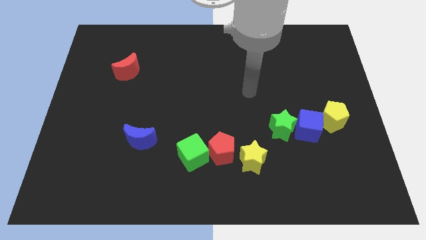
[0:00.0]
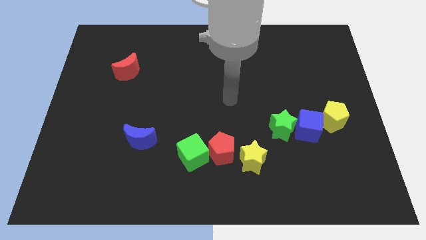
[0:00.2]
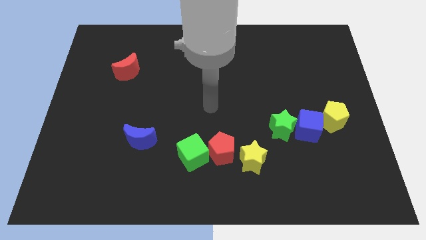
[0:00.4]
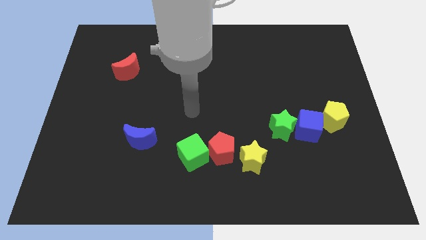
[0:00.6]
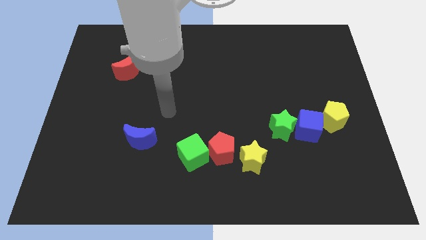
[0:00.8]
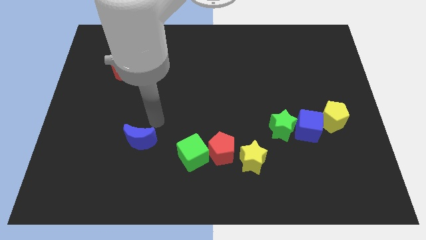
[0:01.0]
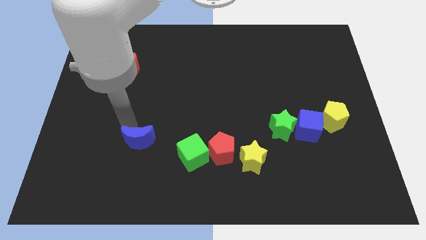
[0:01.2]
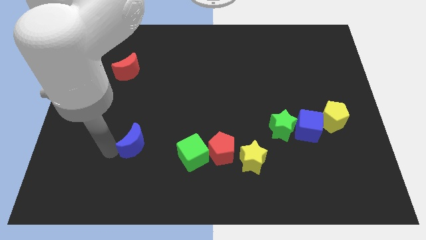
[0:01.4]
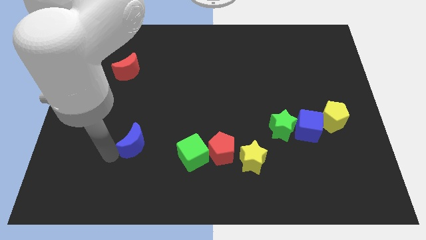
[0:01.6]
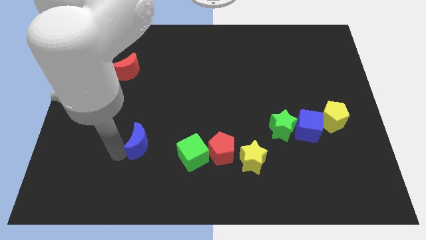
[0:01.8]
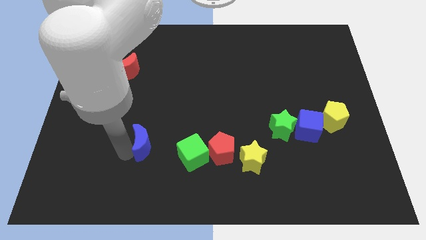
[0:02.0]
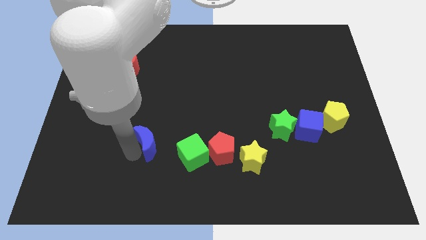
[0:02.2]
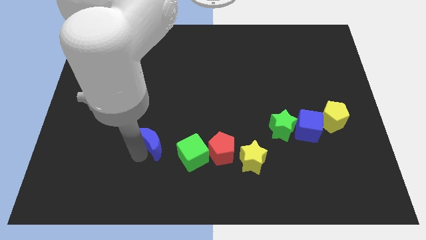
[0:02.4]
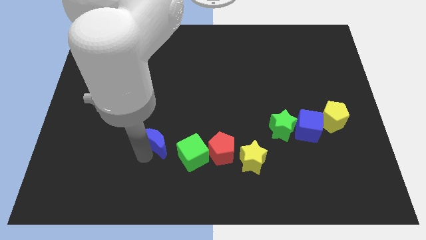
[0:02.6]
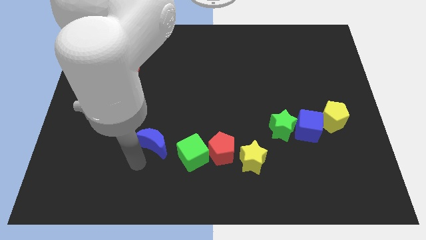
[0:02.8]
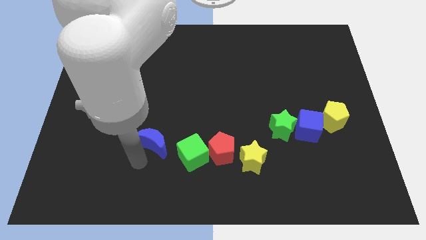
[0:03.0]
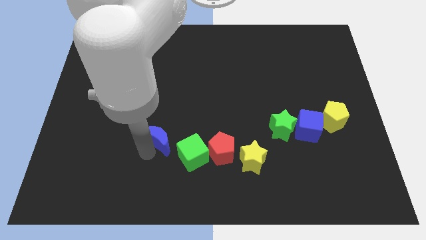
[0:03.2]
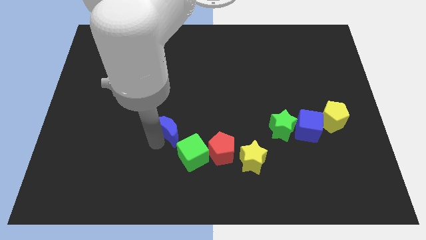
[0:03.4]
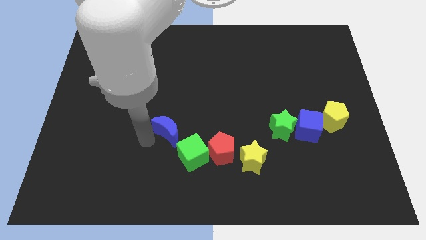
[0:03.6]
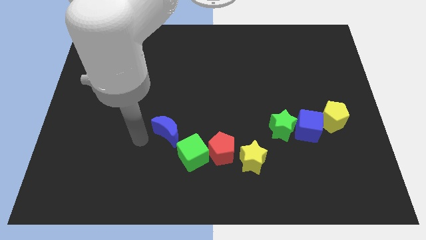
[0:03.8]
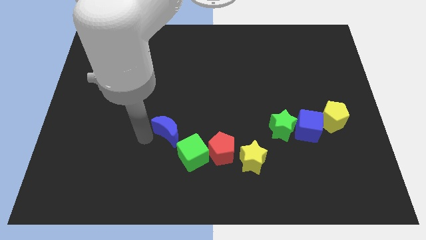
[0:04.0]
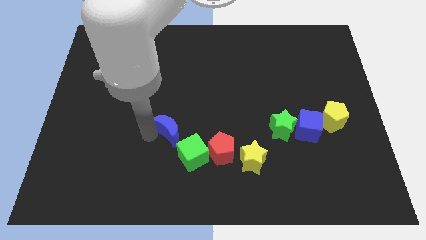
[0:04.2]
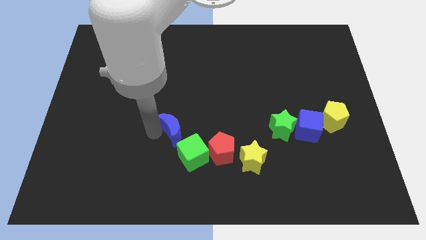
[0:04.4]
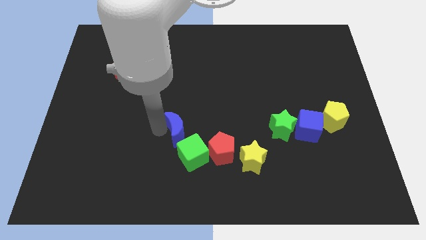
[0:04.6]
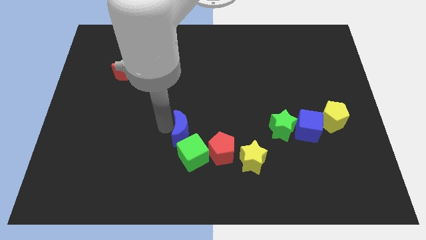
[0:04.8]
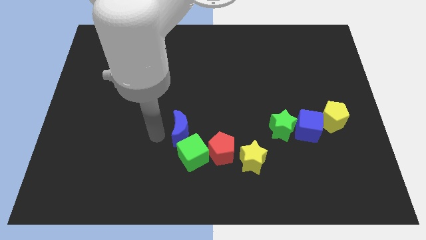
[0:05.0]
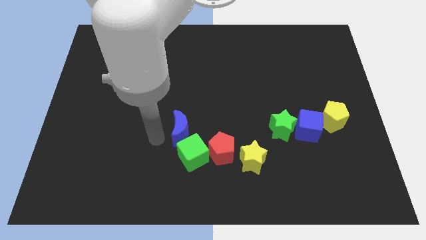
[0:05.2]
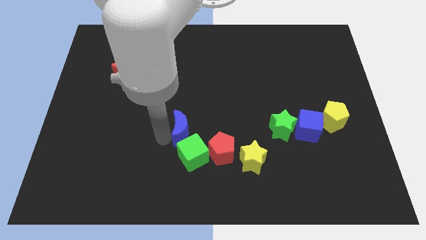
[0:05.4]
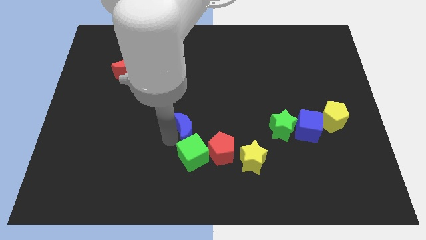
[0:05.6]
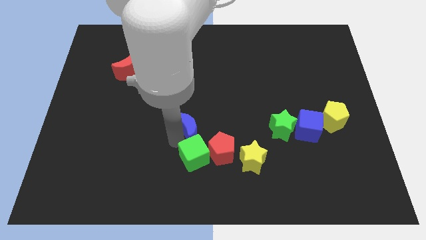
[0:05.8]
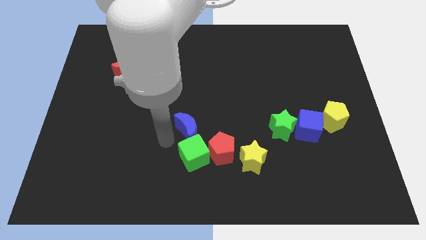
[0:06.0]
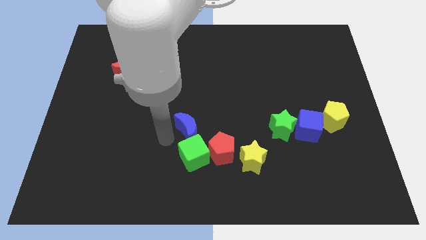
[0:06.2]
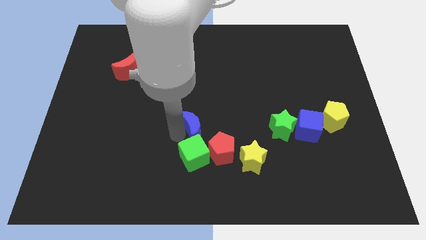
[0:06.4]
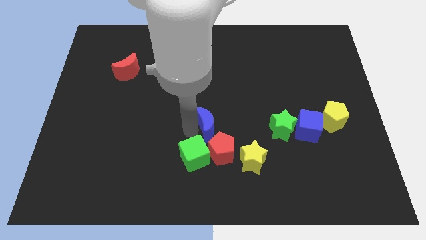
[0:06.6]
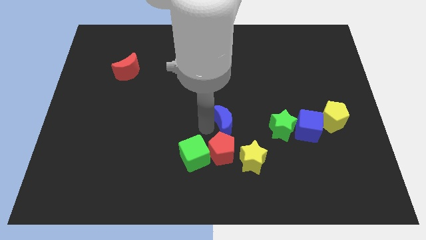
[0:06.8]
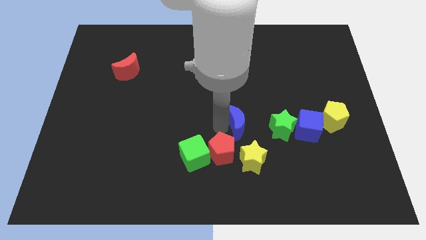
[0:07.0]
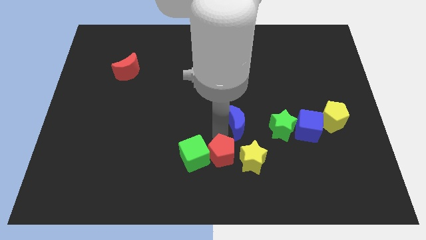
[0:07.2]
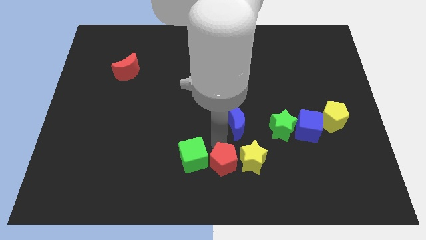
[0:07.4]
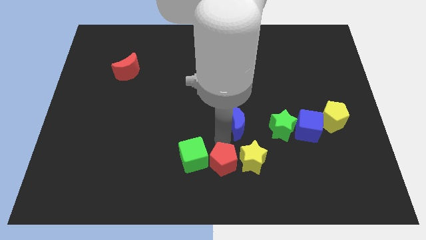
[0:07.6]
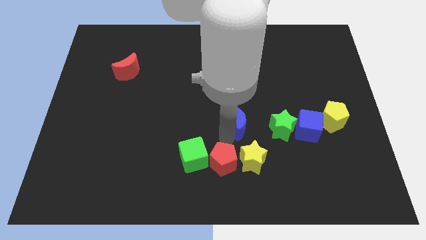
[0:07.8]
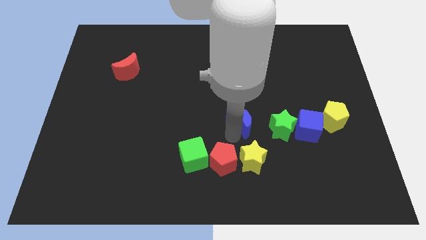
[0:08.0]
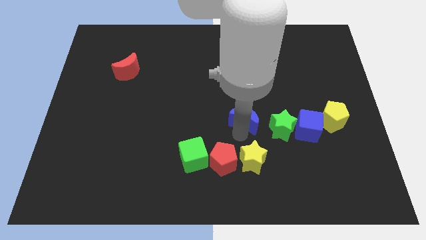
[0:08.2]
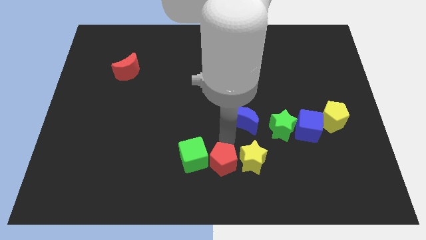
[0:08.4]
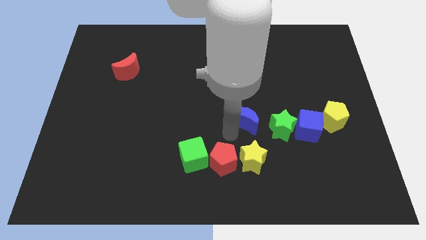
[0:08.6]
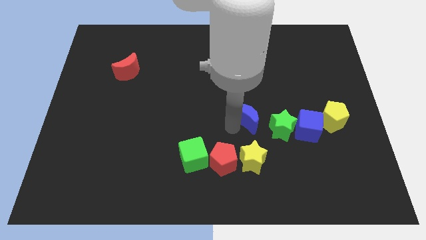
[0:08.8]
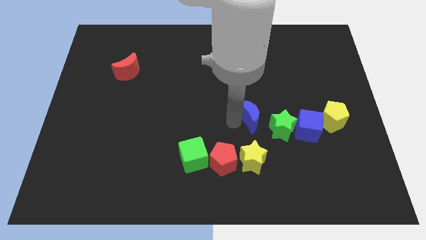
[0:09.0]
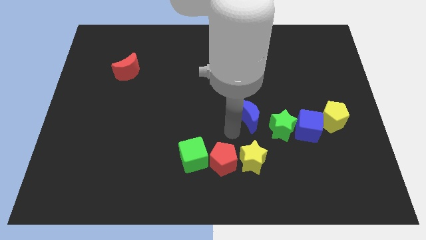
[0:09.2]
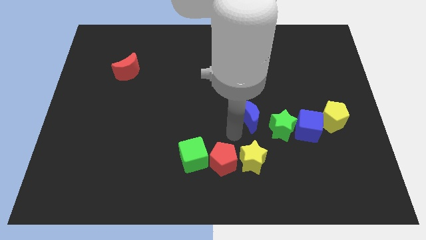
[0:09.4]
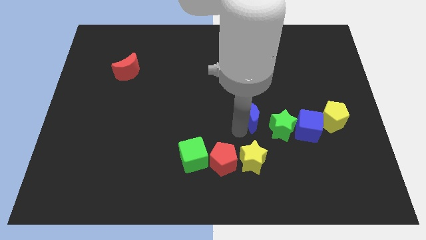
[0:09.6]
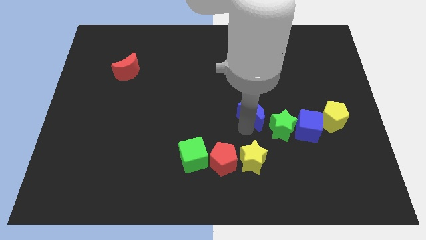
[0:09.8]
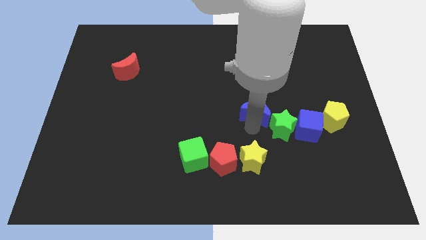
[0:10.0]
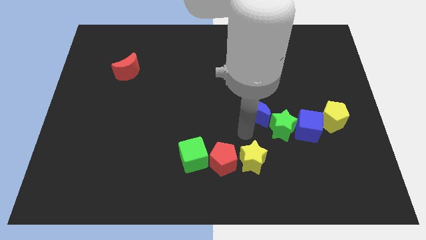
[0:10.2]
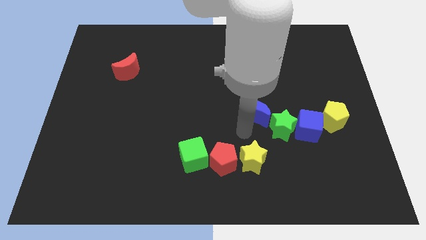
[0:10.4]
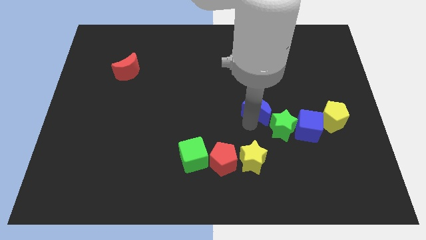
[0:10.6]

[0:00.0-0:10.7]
move the blue moon to the top of the green star

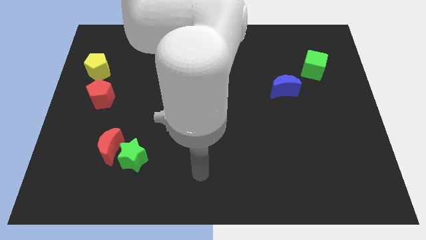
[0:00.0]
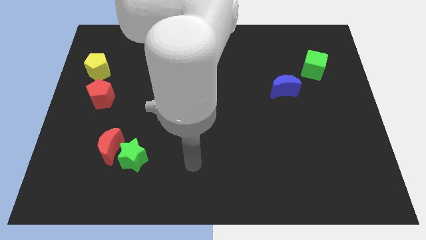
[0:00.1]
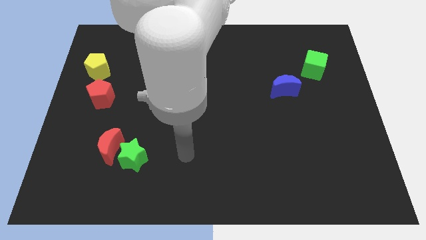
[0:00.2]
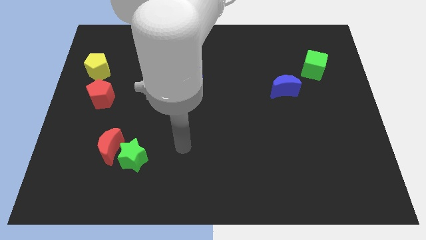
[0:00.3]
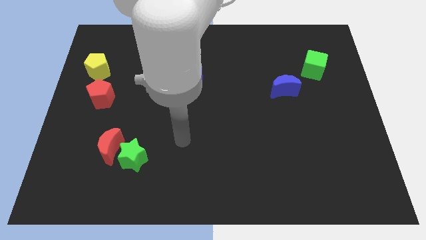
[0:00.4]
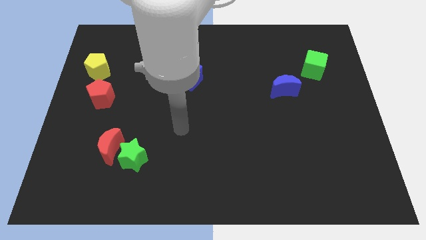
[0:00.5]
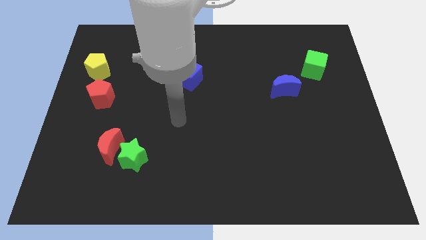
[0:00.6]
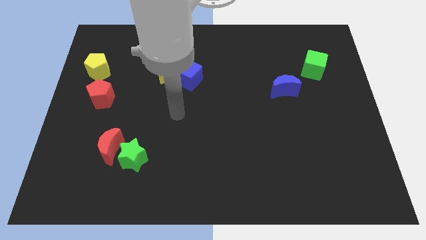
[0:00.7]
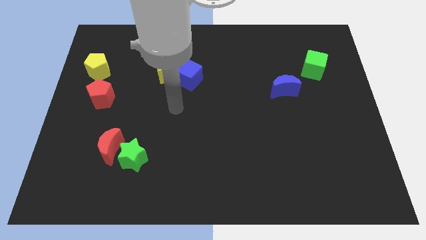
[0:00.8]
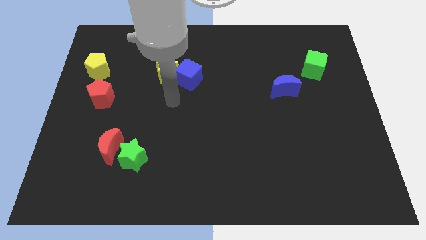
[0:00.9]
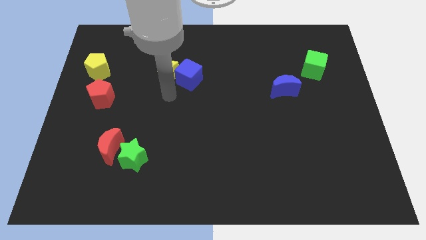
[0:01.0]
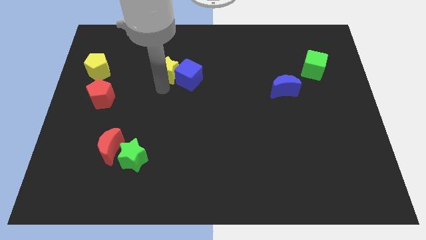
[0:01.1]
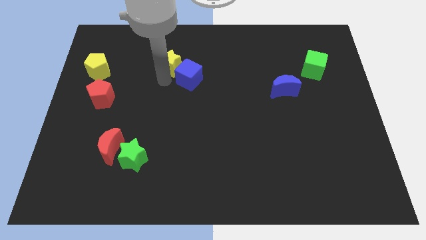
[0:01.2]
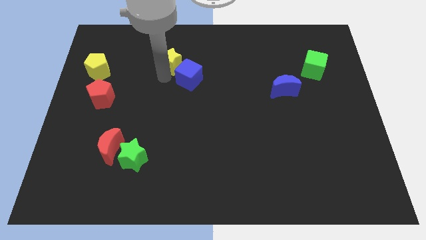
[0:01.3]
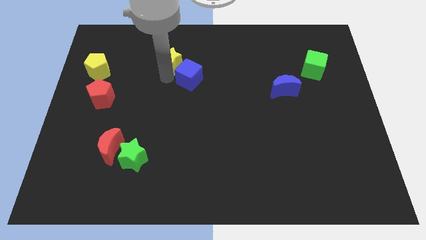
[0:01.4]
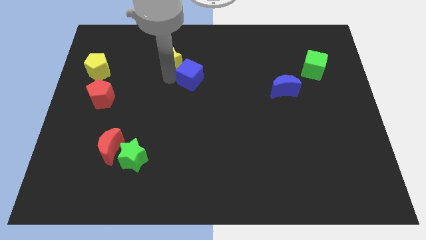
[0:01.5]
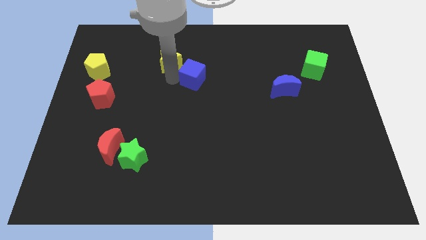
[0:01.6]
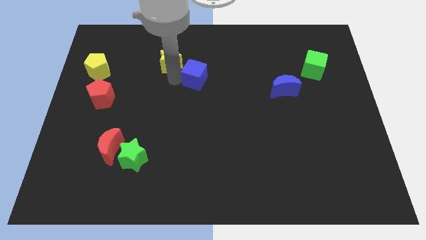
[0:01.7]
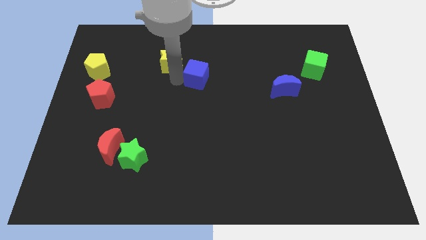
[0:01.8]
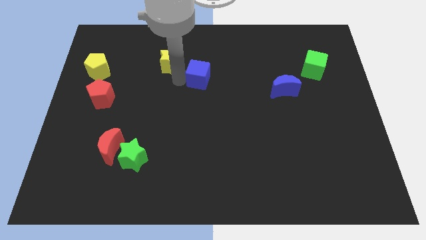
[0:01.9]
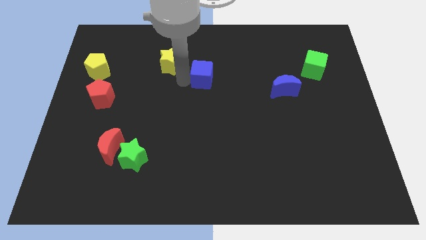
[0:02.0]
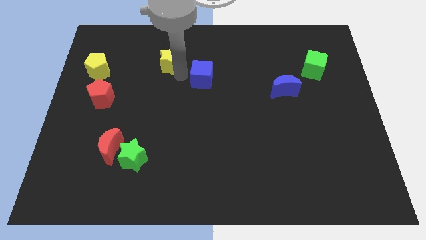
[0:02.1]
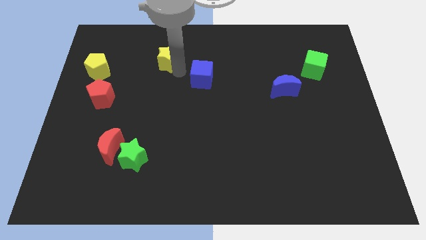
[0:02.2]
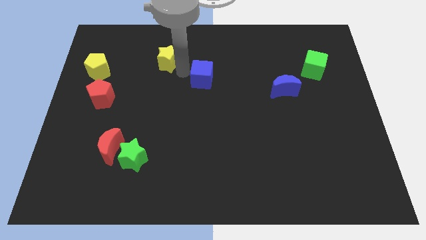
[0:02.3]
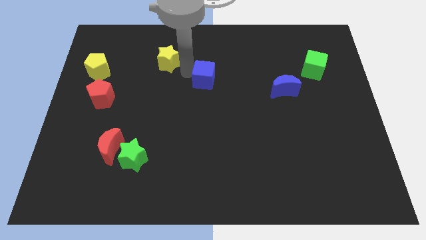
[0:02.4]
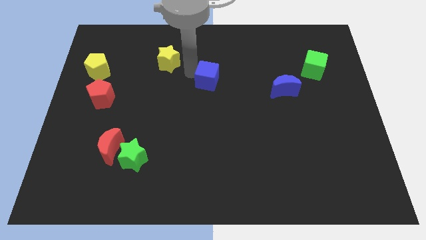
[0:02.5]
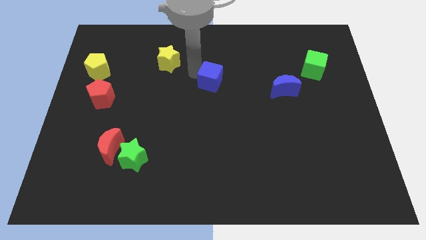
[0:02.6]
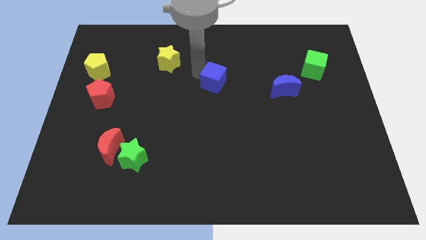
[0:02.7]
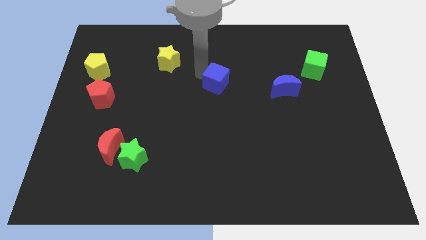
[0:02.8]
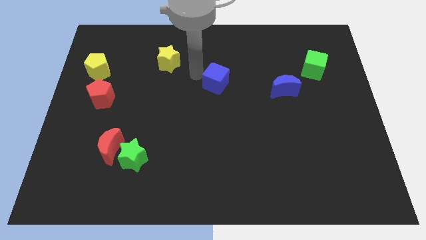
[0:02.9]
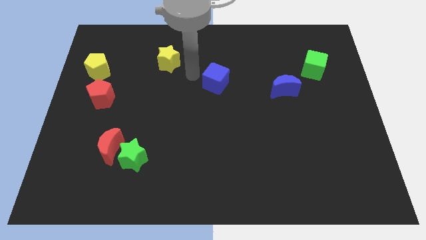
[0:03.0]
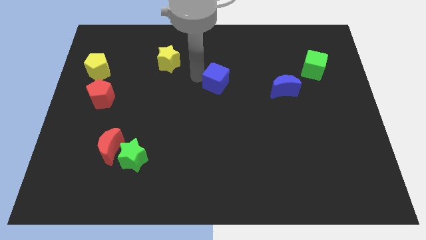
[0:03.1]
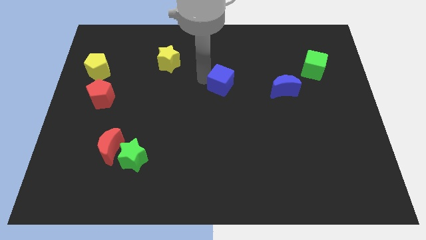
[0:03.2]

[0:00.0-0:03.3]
slide the blue cube to the left of the blue moon
